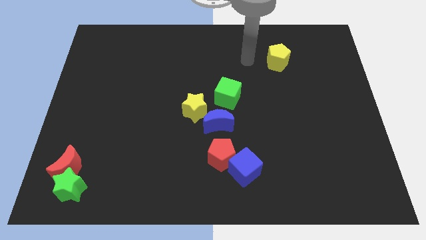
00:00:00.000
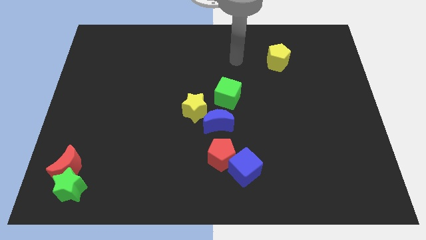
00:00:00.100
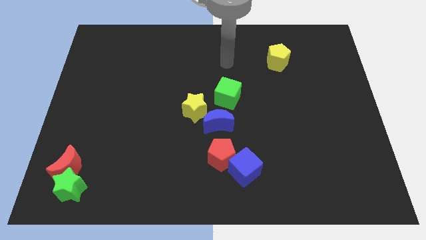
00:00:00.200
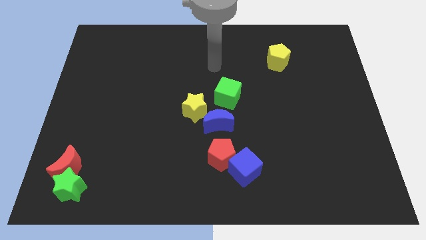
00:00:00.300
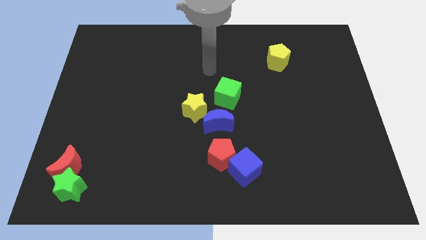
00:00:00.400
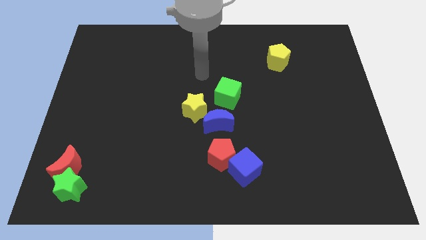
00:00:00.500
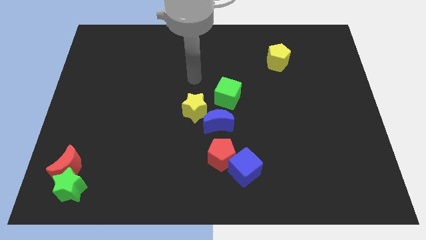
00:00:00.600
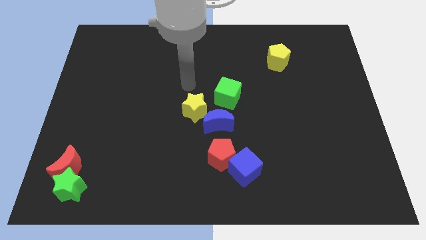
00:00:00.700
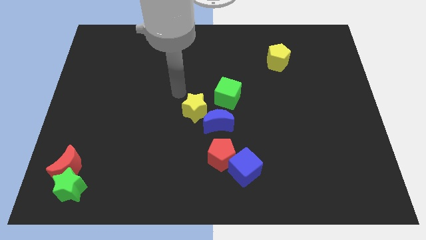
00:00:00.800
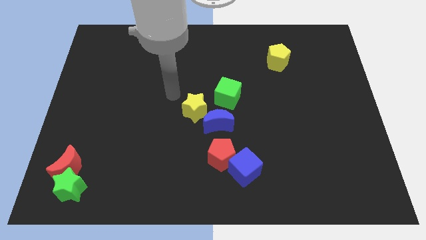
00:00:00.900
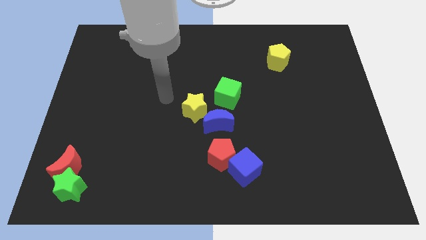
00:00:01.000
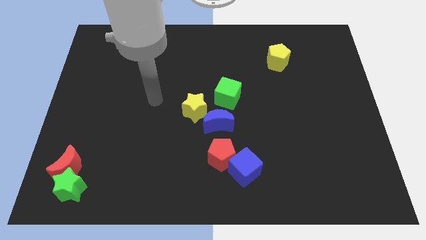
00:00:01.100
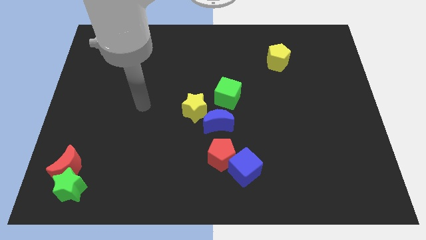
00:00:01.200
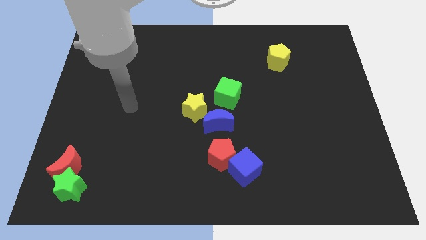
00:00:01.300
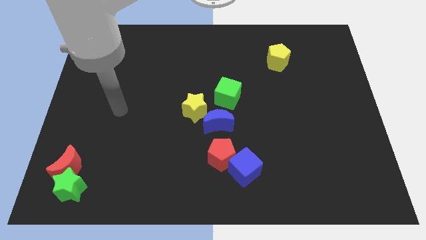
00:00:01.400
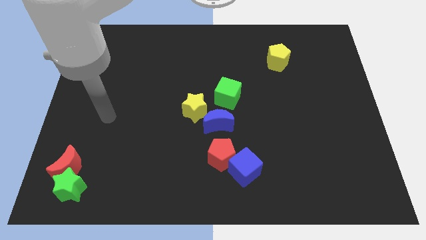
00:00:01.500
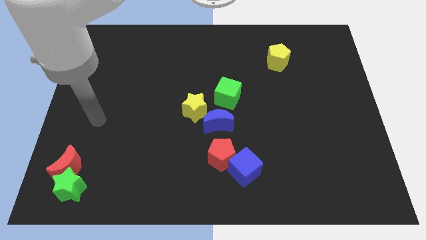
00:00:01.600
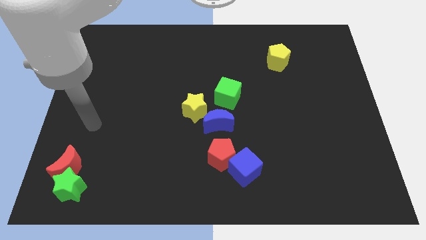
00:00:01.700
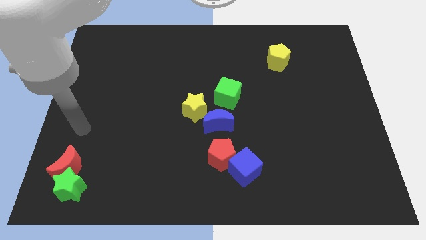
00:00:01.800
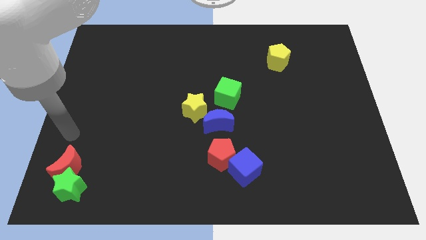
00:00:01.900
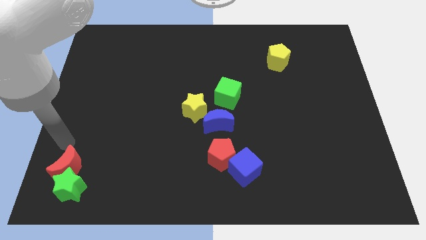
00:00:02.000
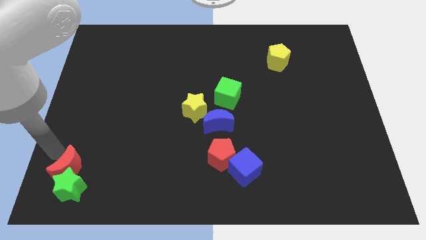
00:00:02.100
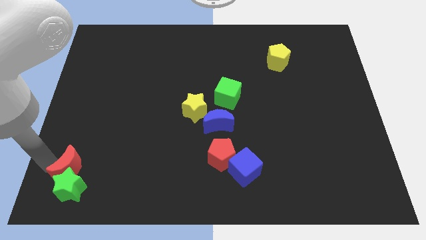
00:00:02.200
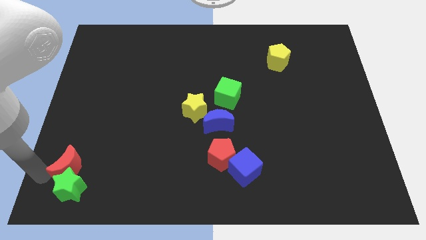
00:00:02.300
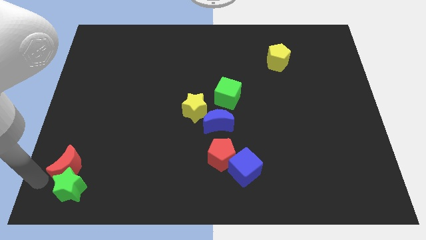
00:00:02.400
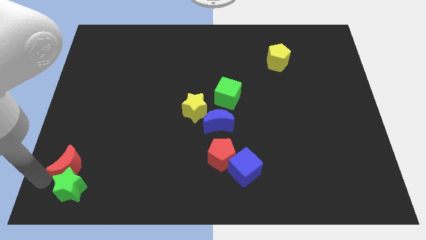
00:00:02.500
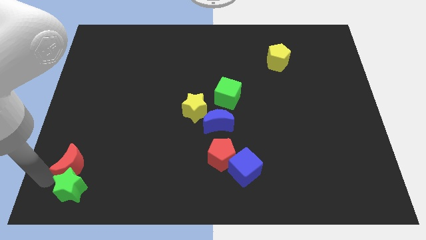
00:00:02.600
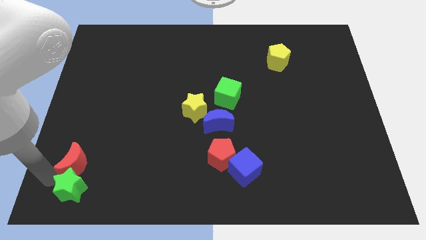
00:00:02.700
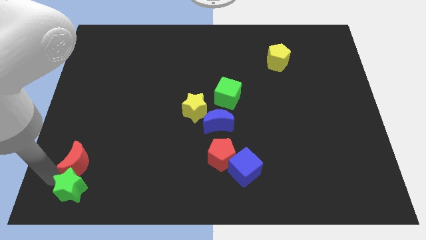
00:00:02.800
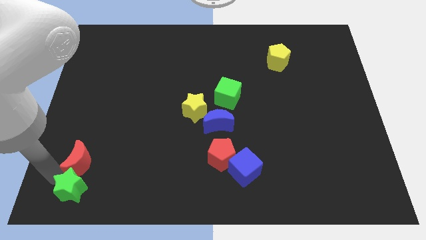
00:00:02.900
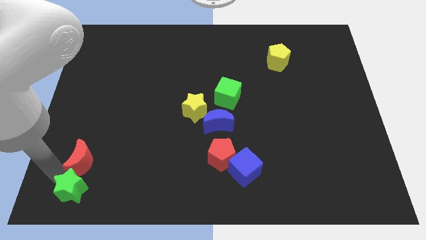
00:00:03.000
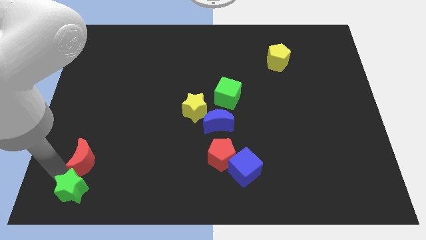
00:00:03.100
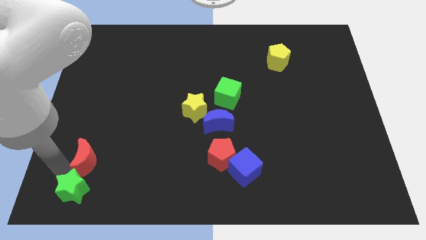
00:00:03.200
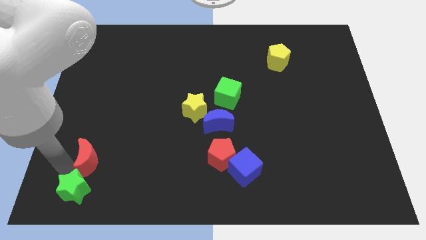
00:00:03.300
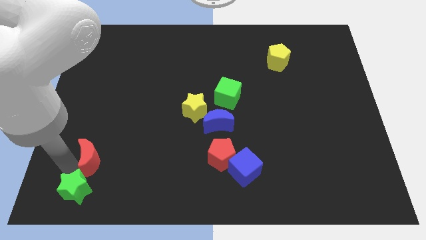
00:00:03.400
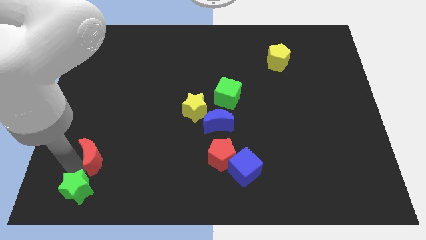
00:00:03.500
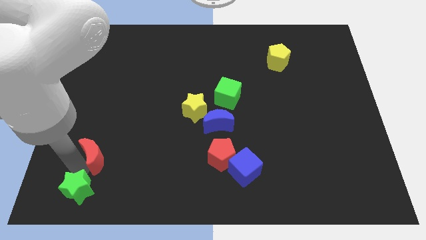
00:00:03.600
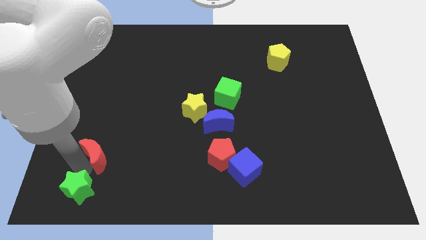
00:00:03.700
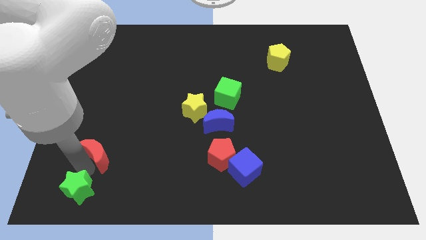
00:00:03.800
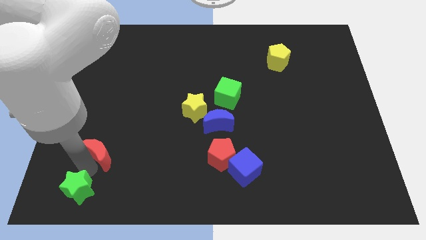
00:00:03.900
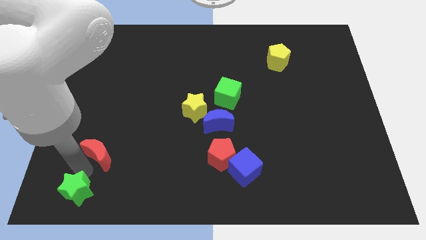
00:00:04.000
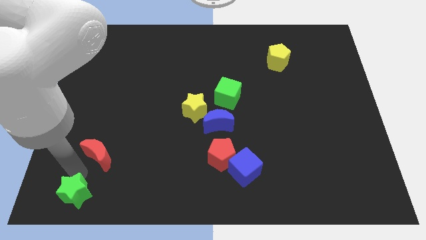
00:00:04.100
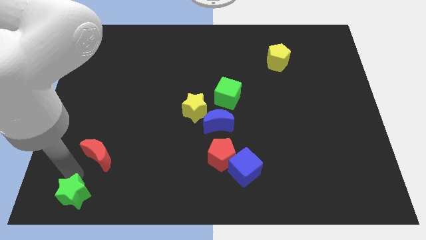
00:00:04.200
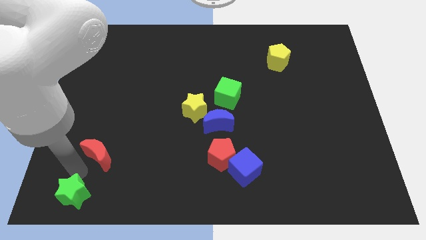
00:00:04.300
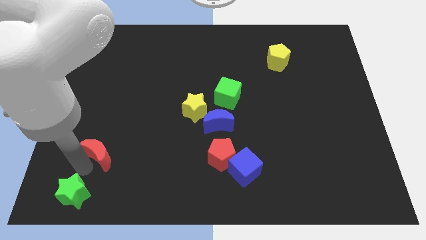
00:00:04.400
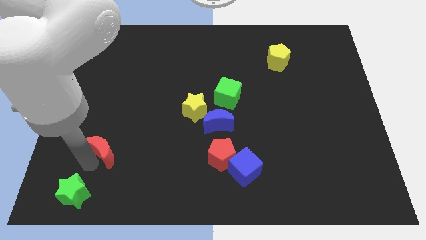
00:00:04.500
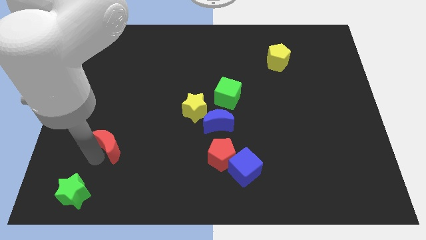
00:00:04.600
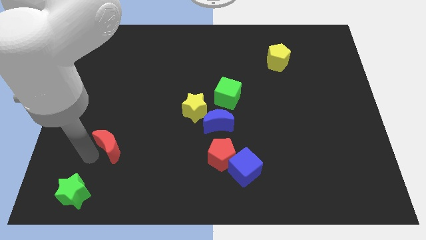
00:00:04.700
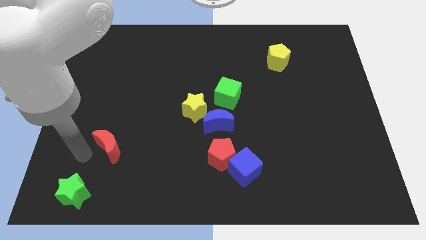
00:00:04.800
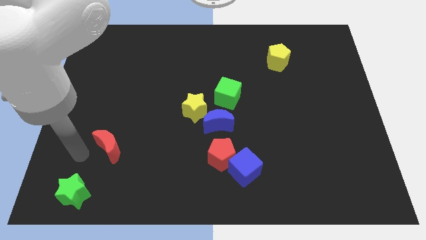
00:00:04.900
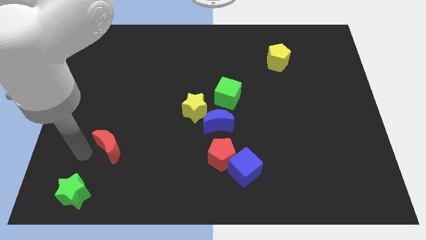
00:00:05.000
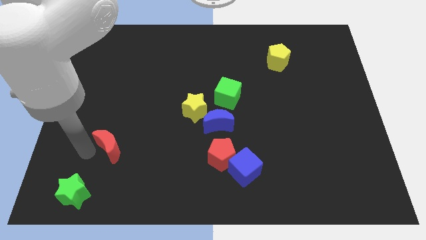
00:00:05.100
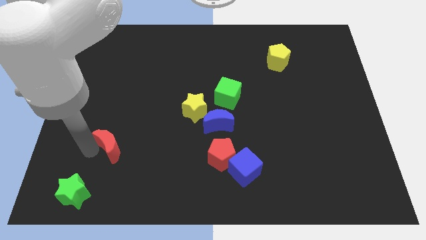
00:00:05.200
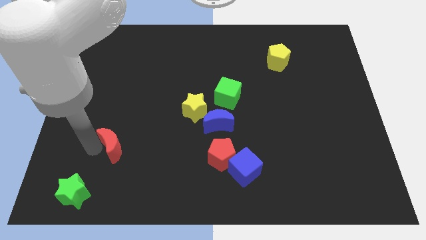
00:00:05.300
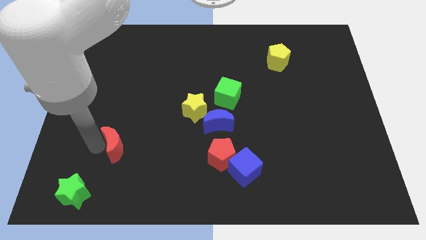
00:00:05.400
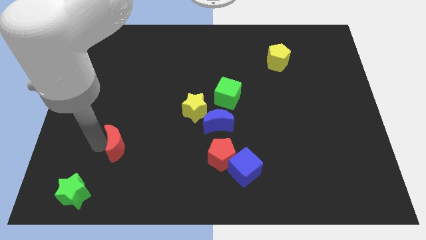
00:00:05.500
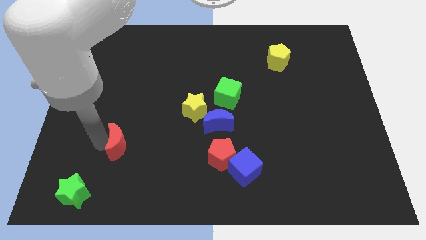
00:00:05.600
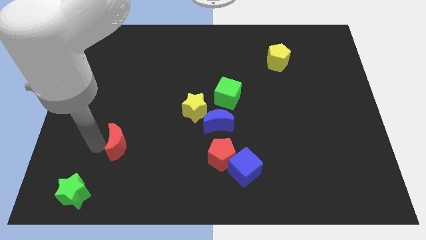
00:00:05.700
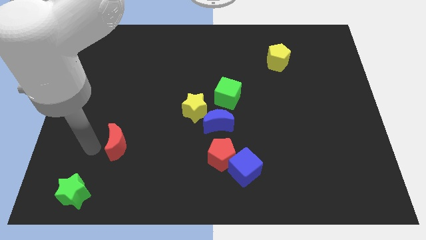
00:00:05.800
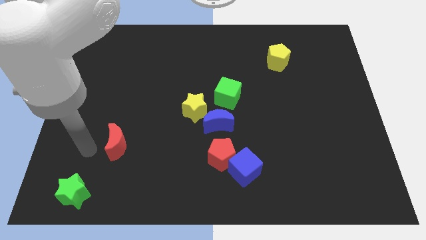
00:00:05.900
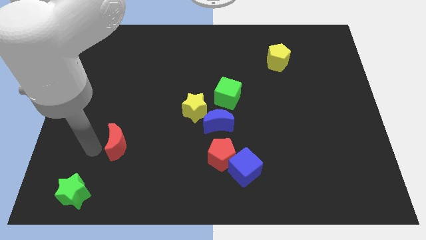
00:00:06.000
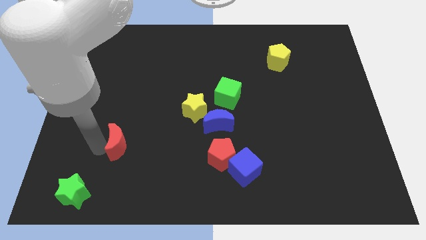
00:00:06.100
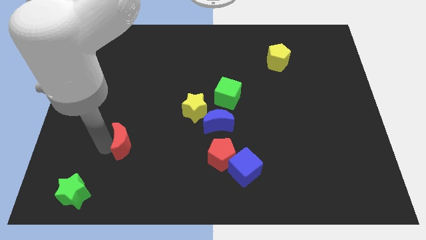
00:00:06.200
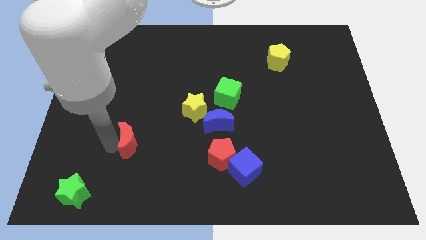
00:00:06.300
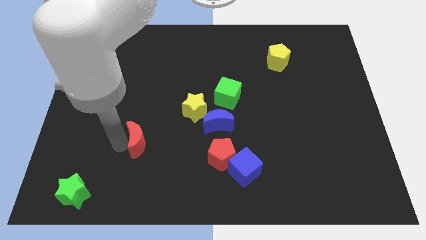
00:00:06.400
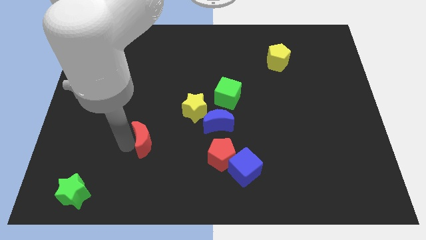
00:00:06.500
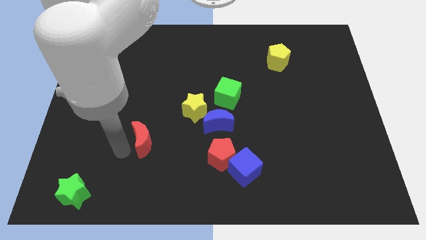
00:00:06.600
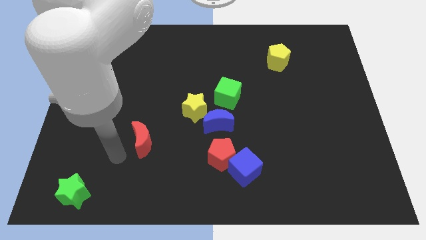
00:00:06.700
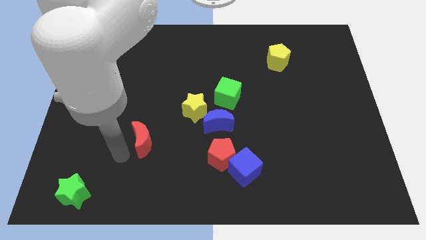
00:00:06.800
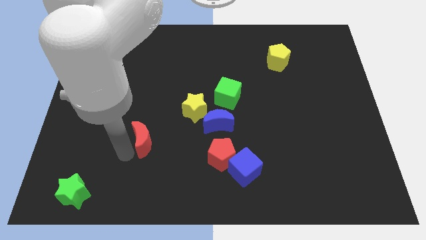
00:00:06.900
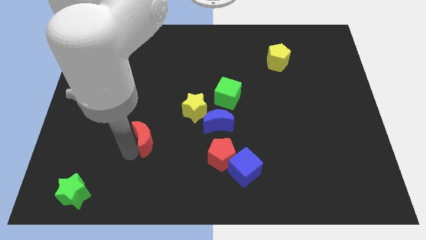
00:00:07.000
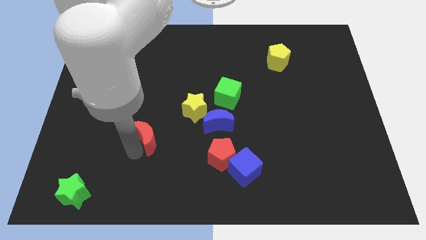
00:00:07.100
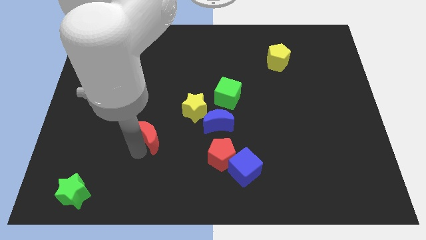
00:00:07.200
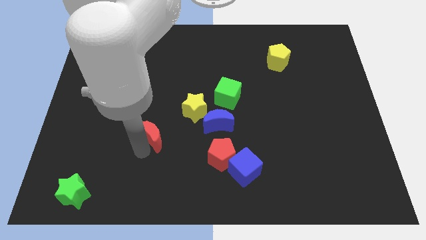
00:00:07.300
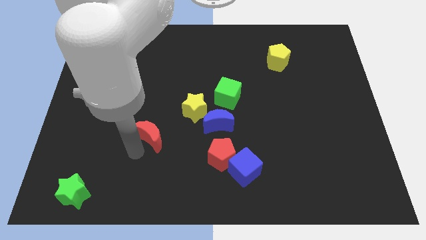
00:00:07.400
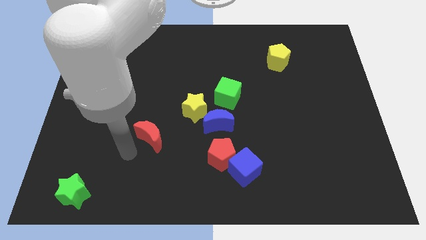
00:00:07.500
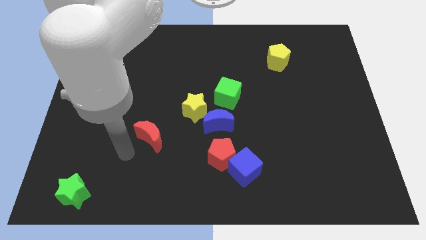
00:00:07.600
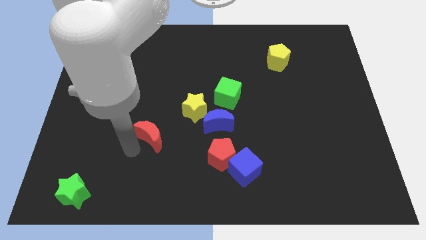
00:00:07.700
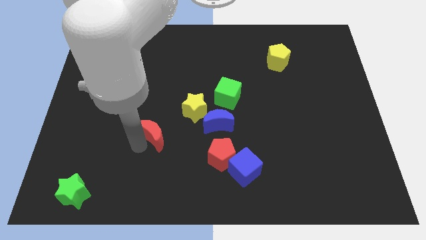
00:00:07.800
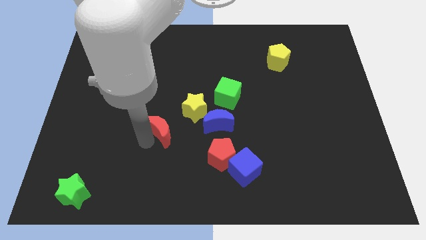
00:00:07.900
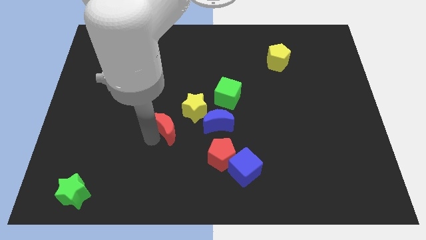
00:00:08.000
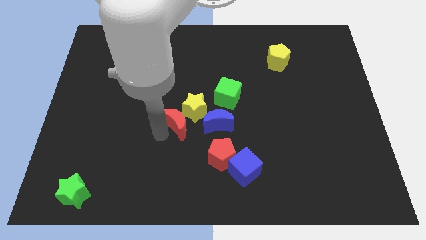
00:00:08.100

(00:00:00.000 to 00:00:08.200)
put the red moon to the yellow star
